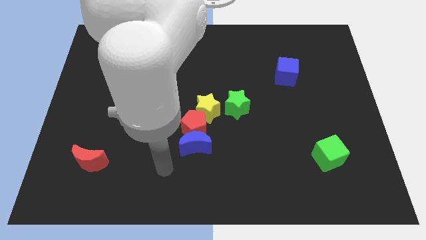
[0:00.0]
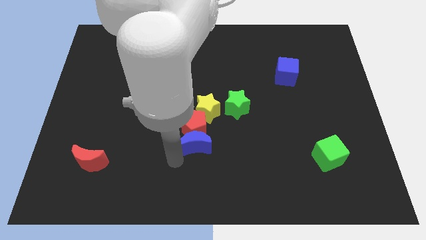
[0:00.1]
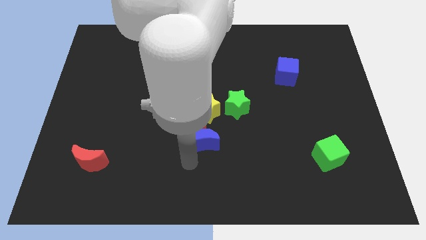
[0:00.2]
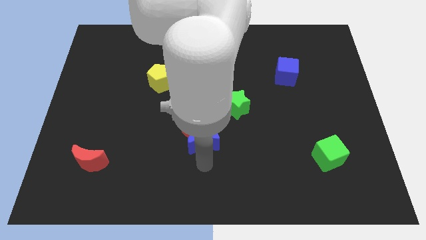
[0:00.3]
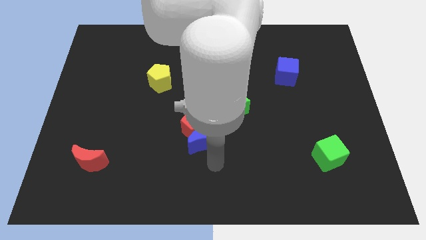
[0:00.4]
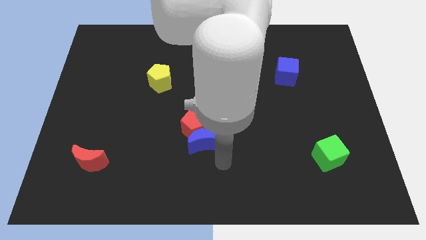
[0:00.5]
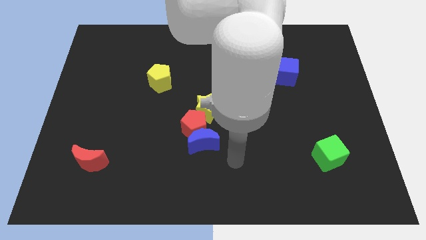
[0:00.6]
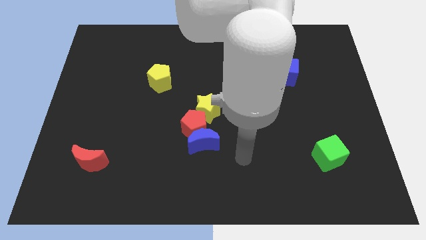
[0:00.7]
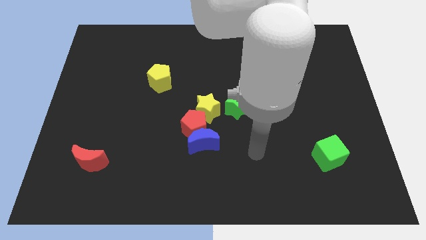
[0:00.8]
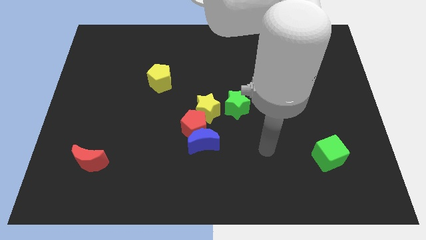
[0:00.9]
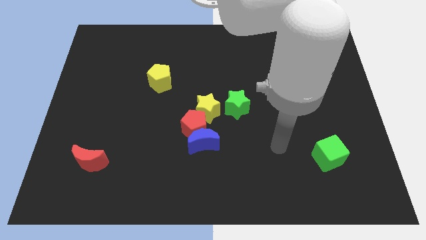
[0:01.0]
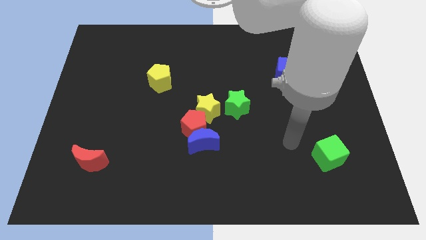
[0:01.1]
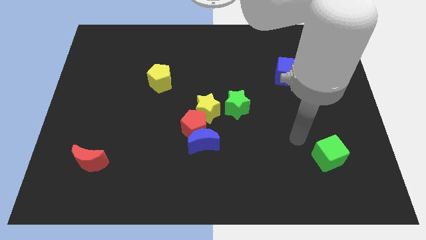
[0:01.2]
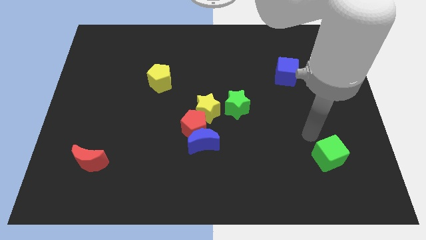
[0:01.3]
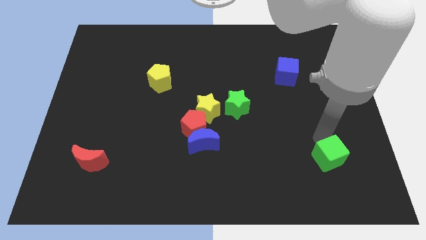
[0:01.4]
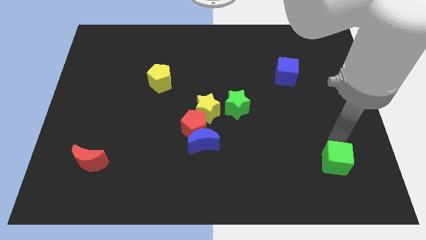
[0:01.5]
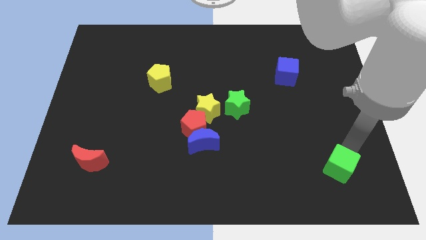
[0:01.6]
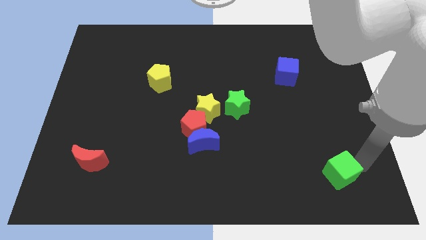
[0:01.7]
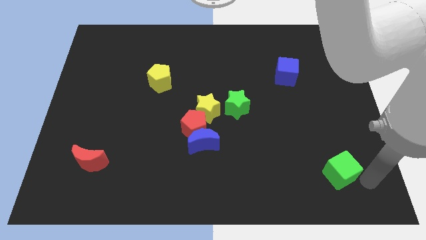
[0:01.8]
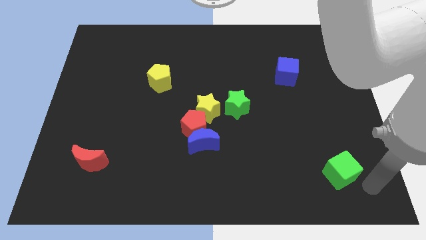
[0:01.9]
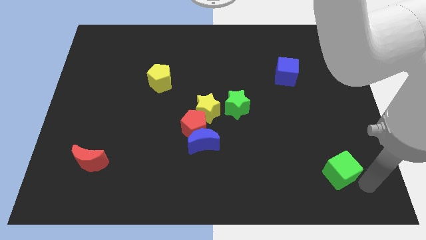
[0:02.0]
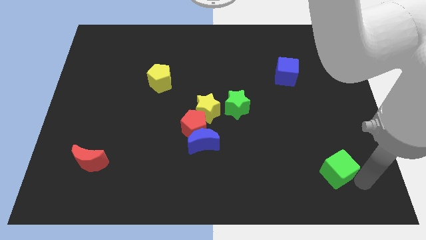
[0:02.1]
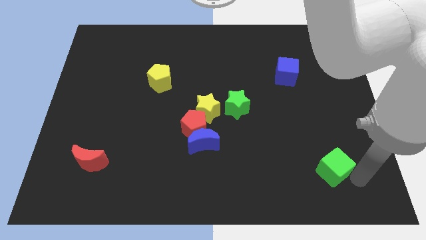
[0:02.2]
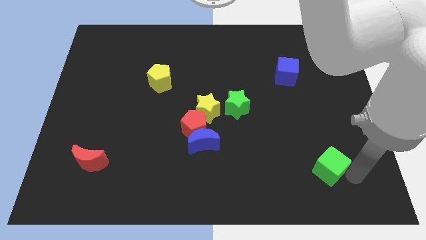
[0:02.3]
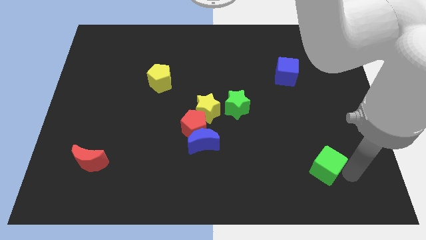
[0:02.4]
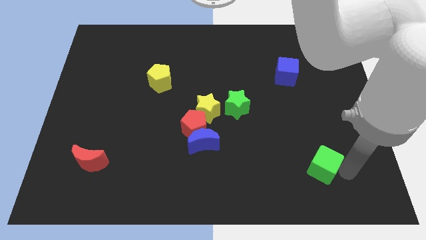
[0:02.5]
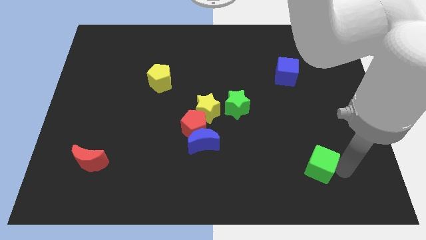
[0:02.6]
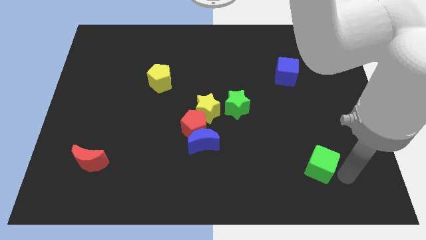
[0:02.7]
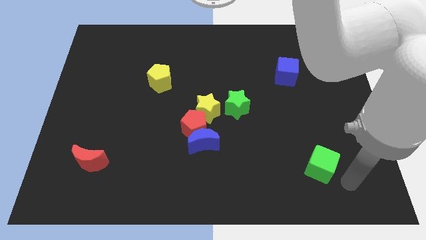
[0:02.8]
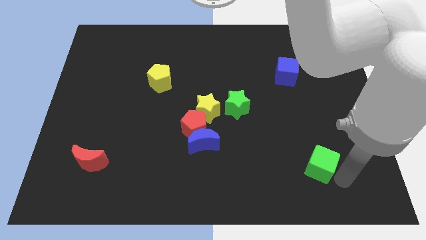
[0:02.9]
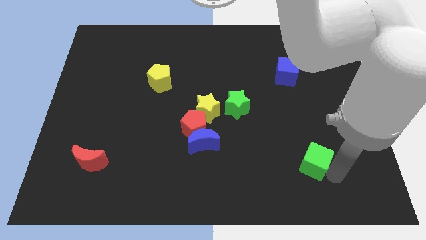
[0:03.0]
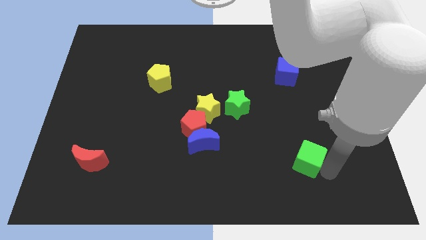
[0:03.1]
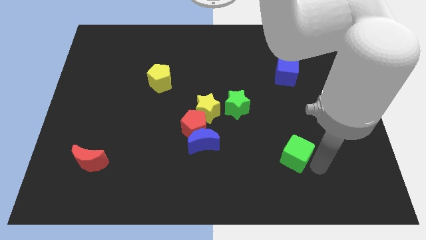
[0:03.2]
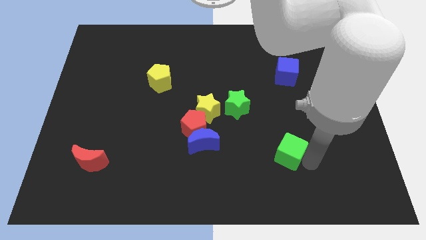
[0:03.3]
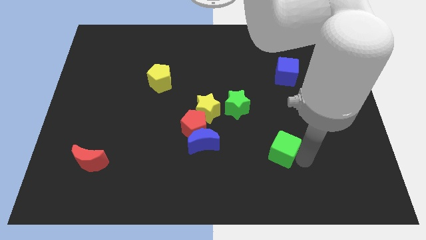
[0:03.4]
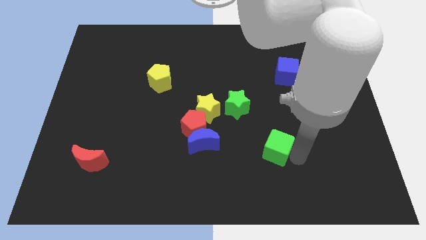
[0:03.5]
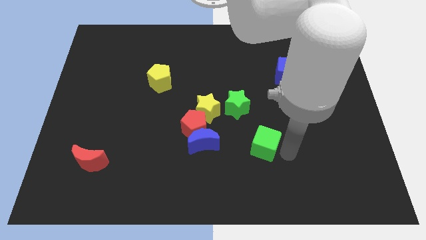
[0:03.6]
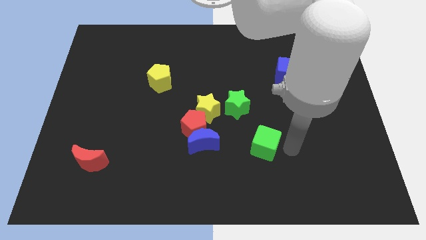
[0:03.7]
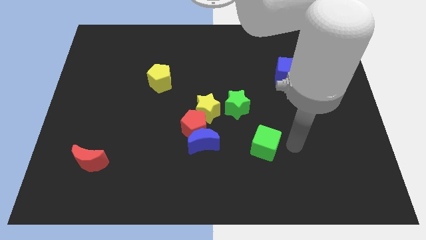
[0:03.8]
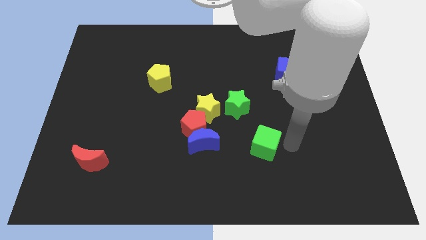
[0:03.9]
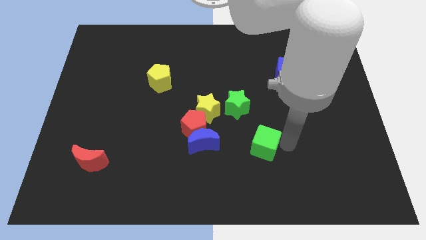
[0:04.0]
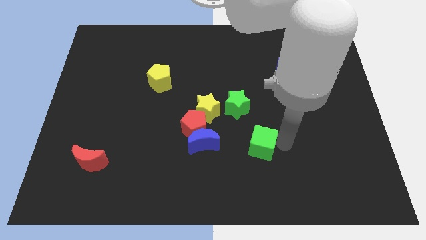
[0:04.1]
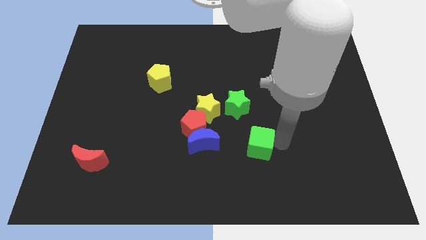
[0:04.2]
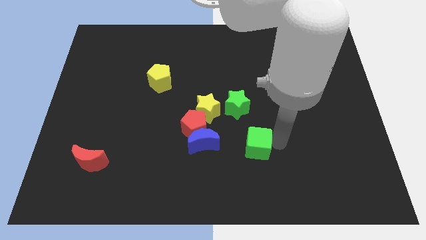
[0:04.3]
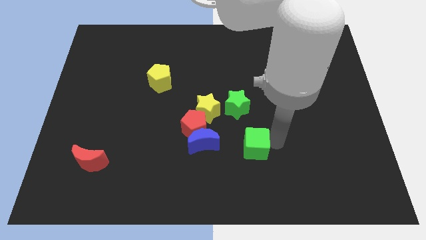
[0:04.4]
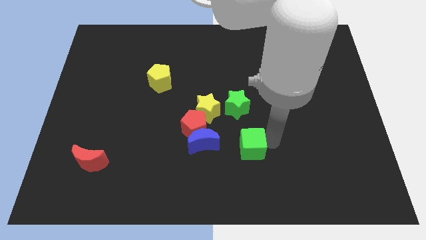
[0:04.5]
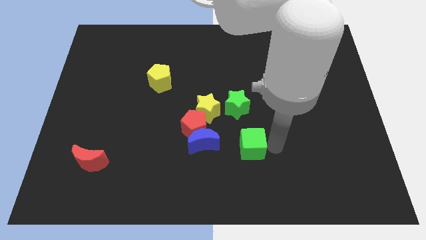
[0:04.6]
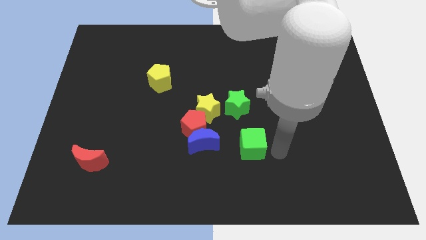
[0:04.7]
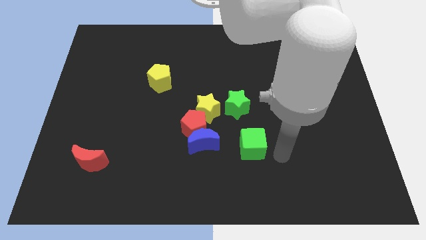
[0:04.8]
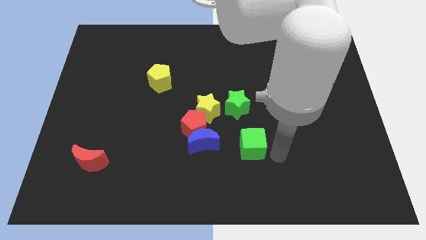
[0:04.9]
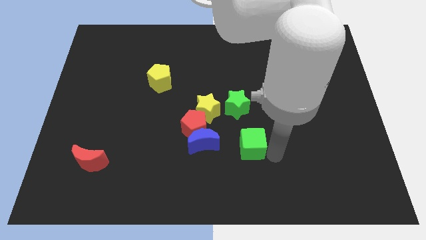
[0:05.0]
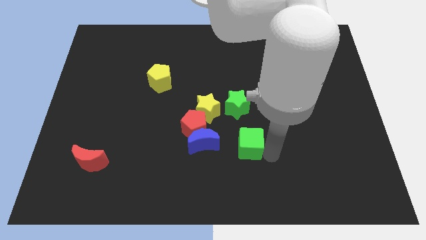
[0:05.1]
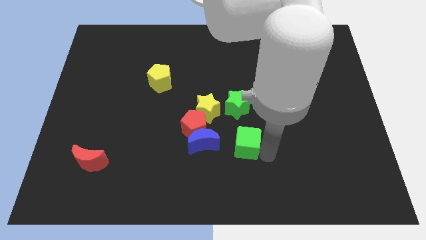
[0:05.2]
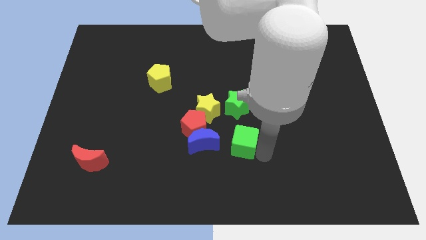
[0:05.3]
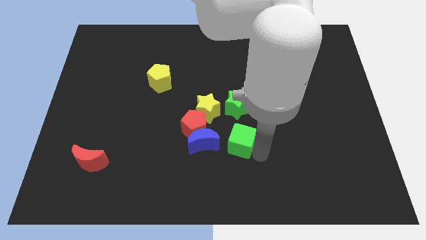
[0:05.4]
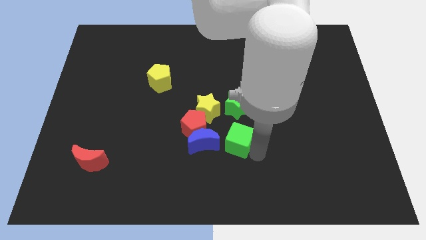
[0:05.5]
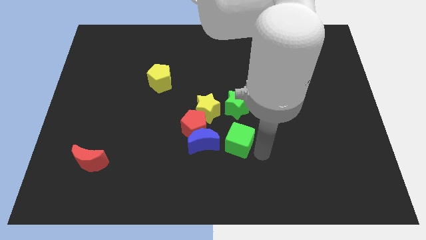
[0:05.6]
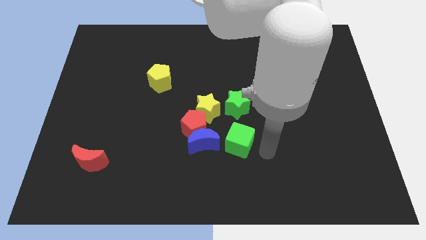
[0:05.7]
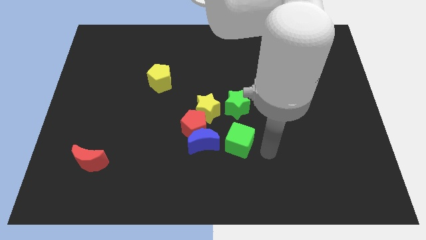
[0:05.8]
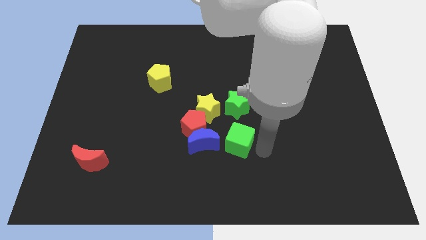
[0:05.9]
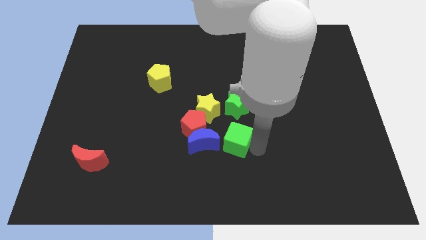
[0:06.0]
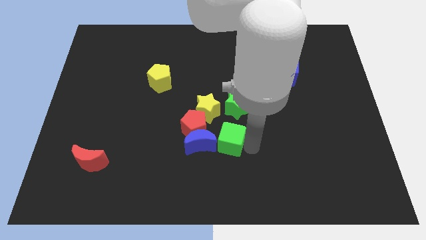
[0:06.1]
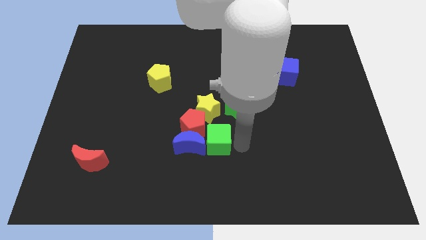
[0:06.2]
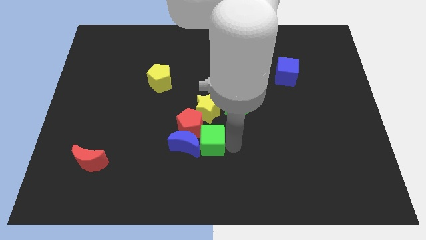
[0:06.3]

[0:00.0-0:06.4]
put the green cube next to the red pentagon

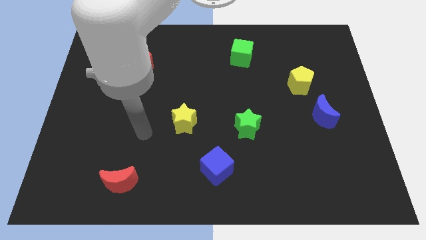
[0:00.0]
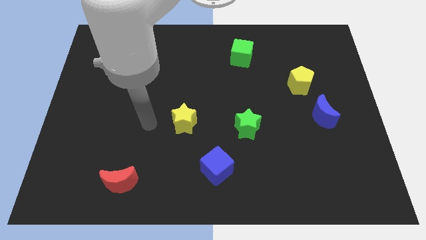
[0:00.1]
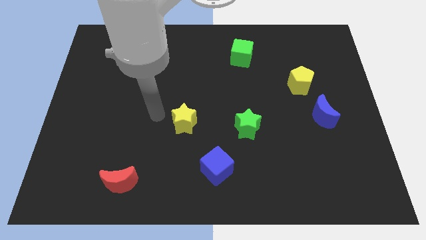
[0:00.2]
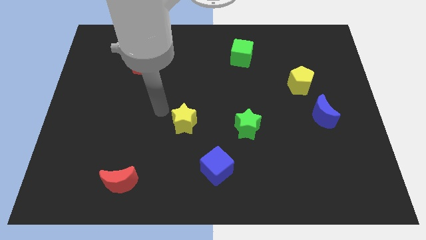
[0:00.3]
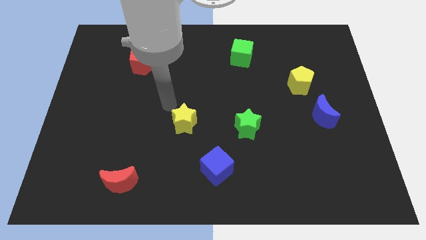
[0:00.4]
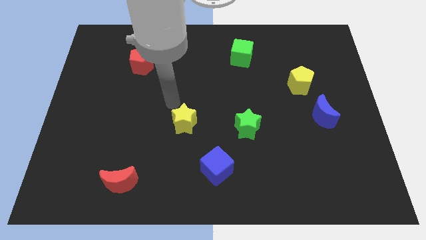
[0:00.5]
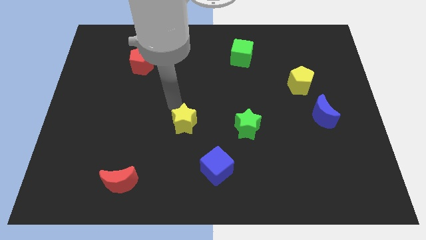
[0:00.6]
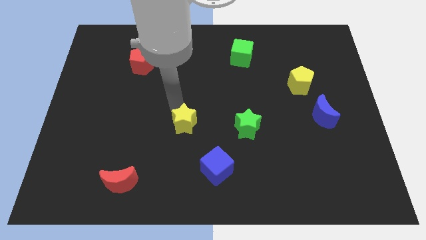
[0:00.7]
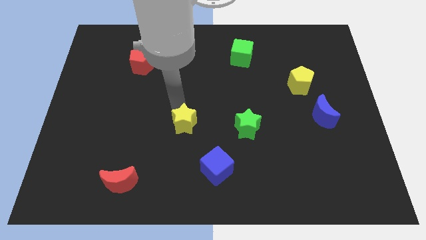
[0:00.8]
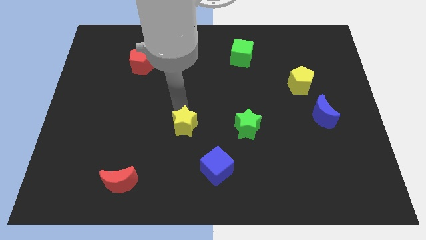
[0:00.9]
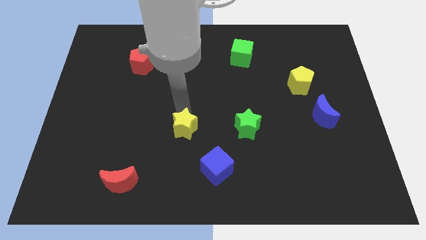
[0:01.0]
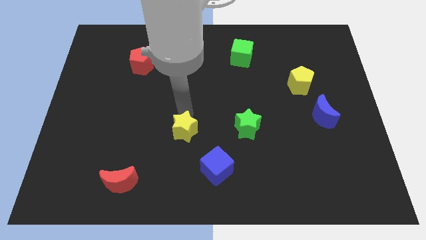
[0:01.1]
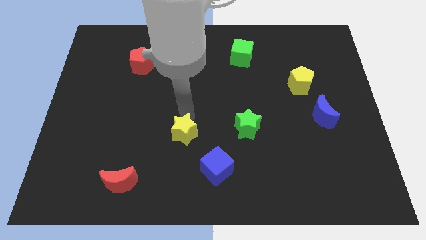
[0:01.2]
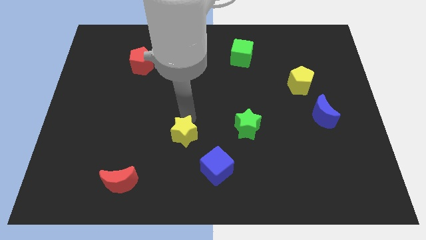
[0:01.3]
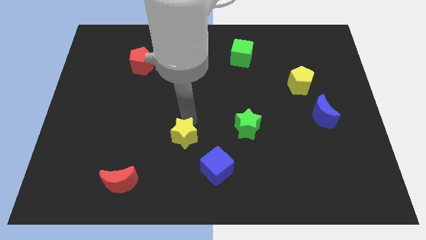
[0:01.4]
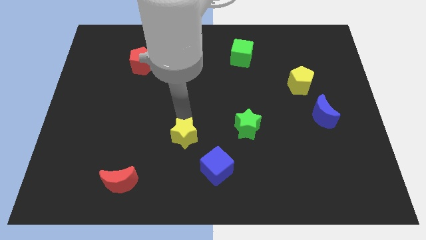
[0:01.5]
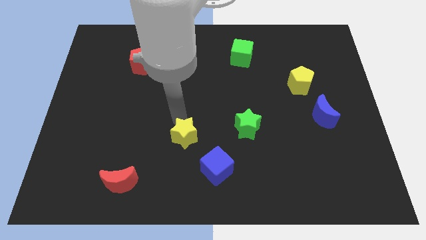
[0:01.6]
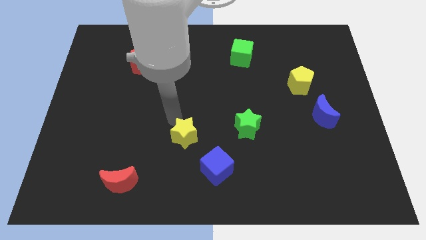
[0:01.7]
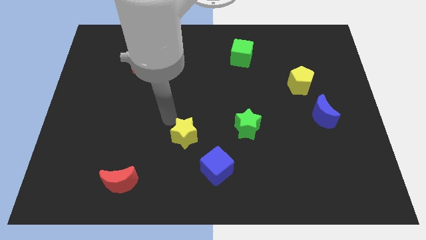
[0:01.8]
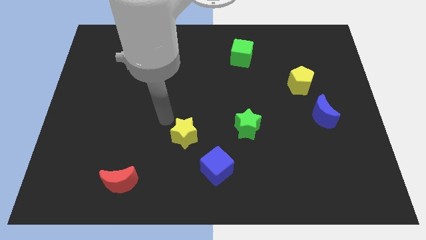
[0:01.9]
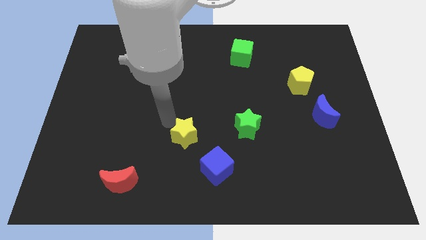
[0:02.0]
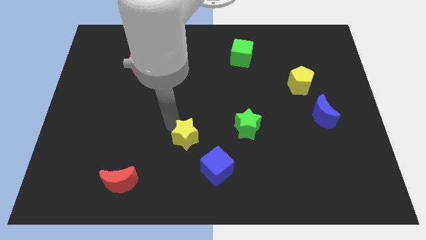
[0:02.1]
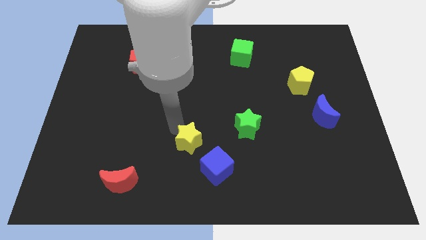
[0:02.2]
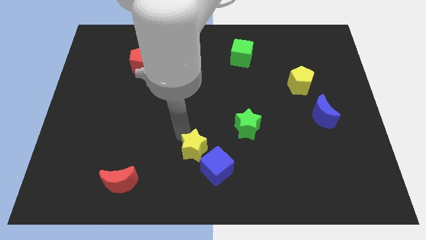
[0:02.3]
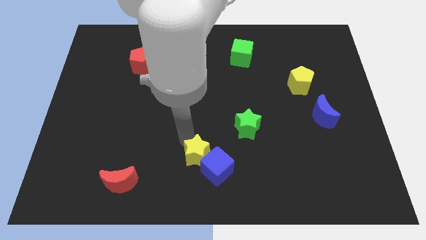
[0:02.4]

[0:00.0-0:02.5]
move the yellow star towards the blue cube
